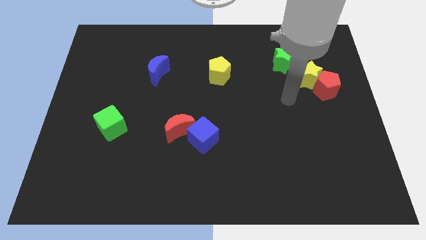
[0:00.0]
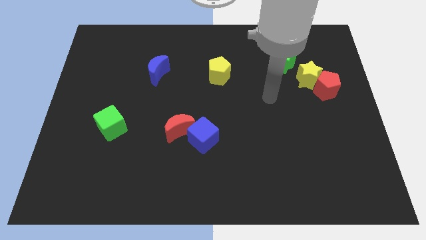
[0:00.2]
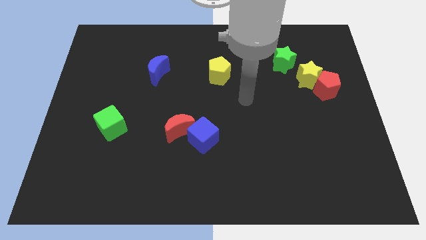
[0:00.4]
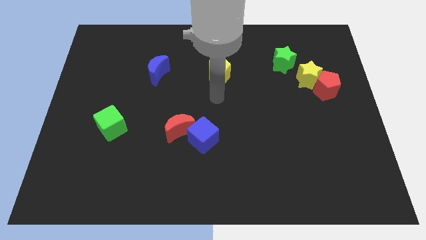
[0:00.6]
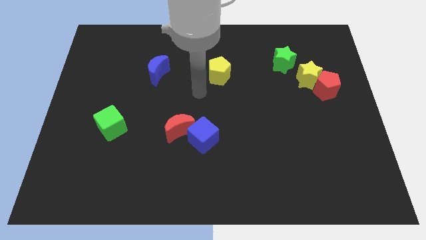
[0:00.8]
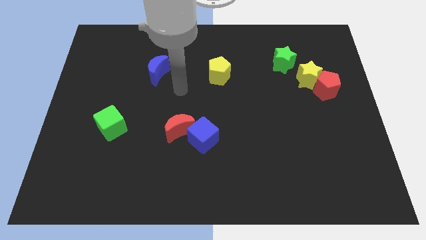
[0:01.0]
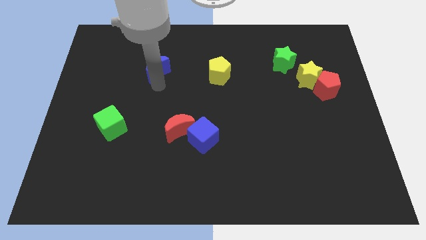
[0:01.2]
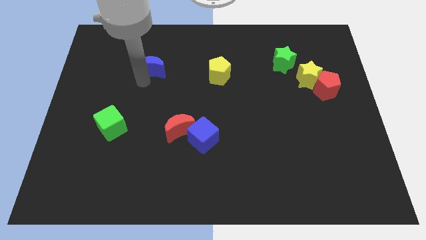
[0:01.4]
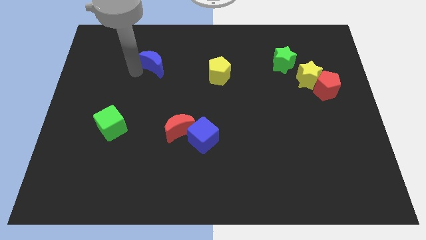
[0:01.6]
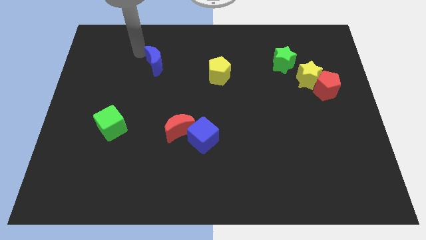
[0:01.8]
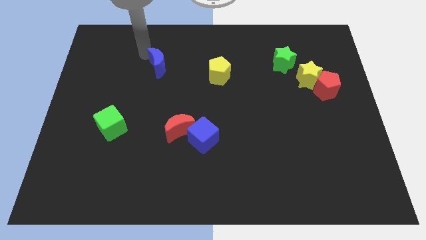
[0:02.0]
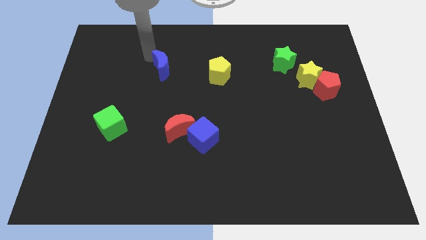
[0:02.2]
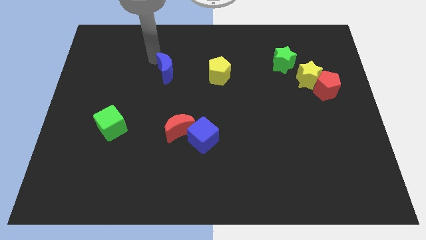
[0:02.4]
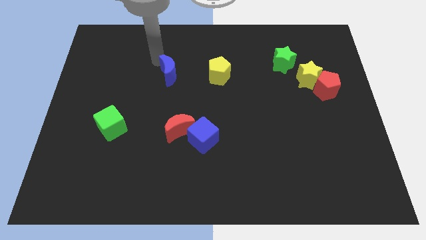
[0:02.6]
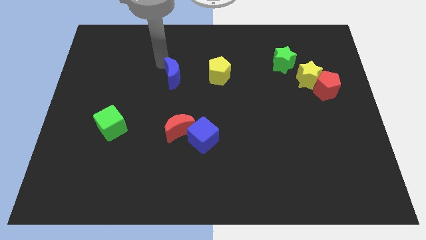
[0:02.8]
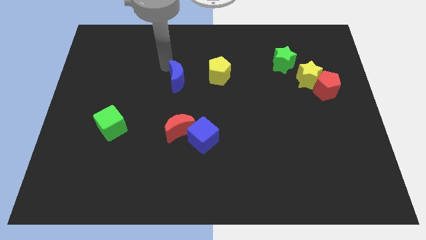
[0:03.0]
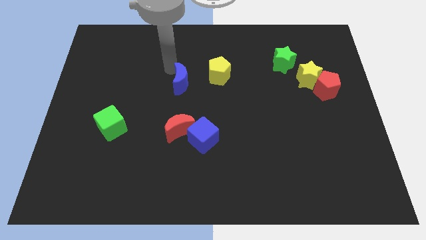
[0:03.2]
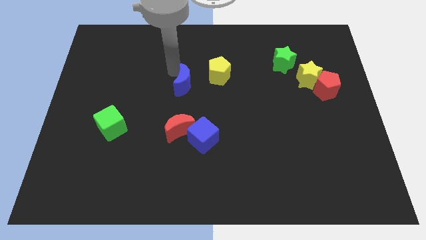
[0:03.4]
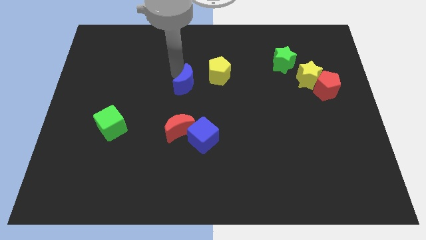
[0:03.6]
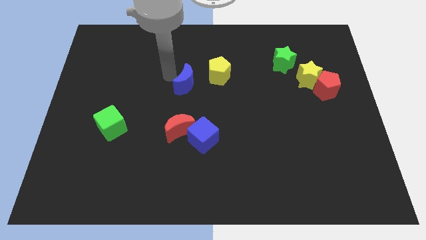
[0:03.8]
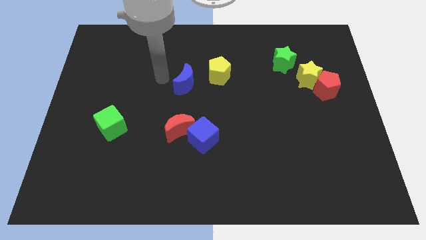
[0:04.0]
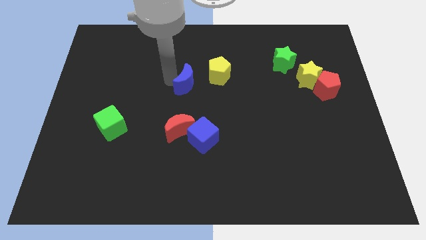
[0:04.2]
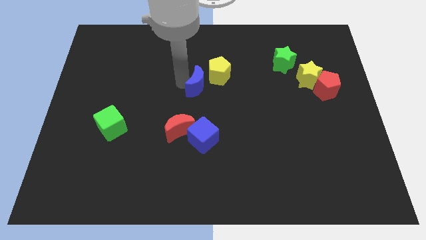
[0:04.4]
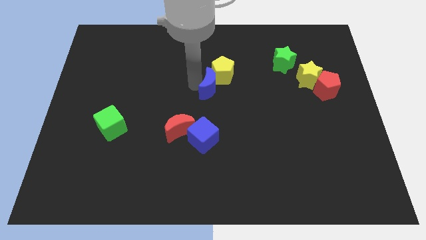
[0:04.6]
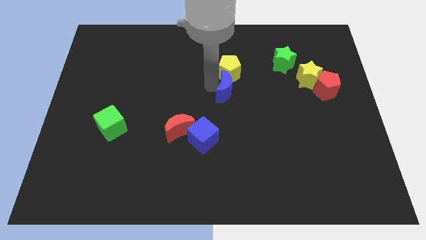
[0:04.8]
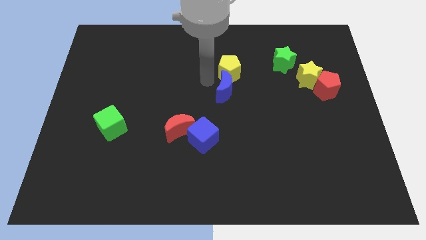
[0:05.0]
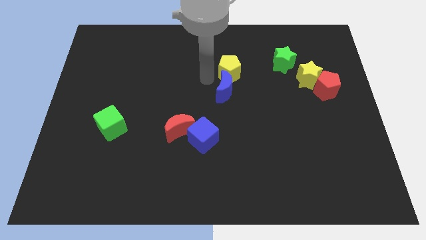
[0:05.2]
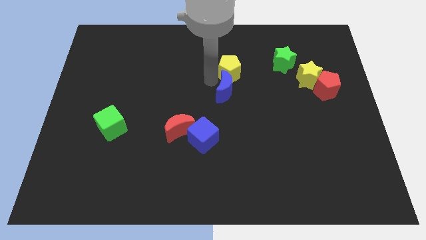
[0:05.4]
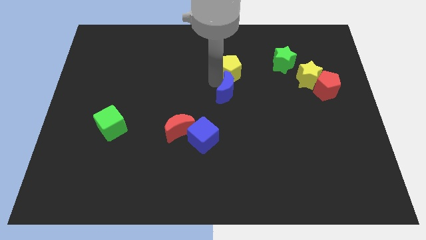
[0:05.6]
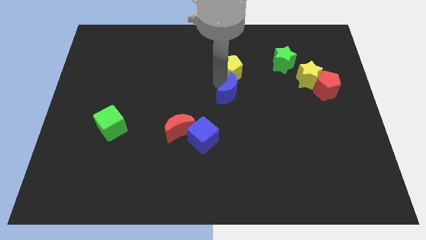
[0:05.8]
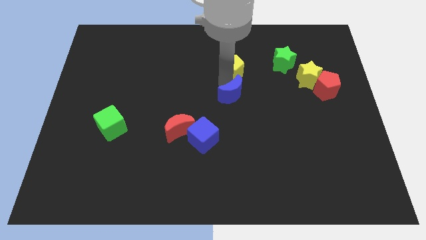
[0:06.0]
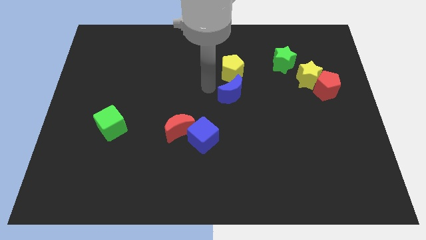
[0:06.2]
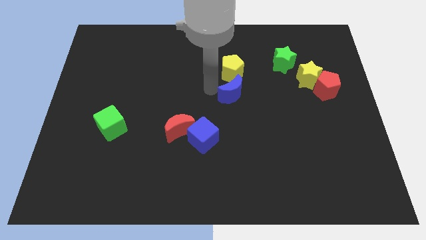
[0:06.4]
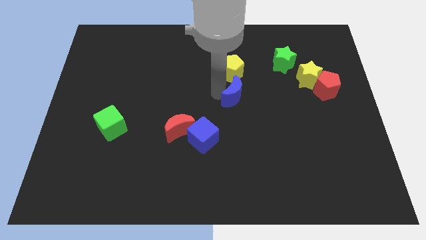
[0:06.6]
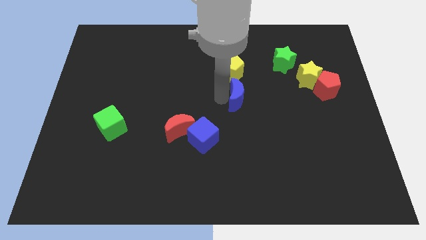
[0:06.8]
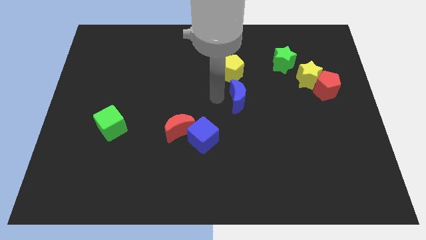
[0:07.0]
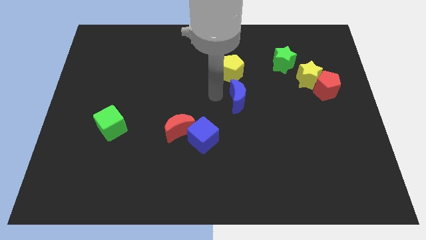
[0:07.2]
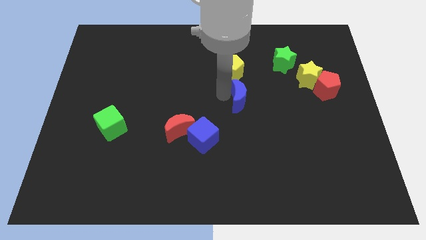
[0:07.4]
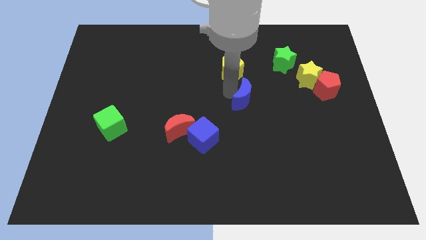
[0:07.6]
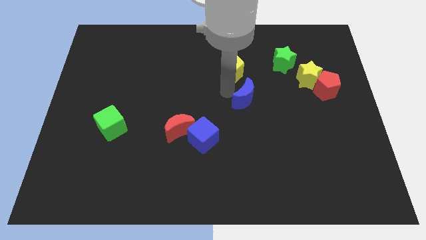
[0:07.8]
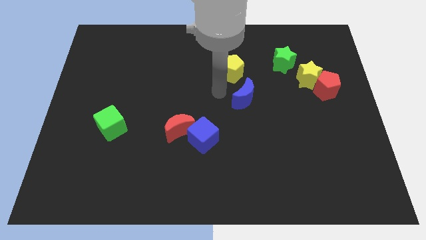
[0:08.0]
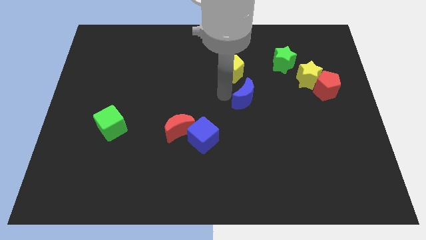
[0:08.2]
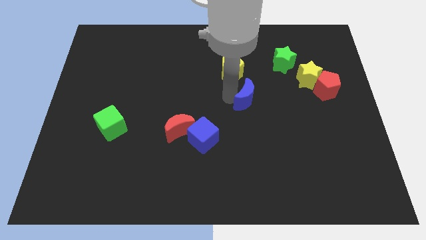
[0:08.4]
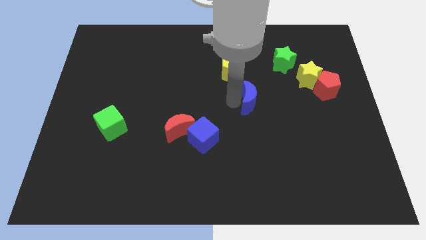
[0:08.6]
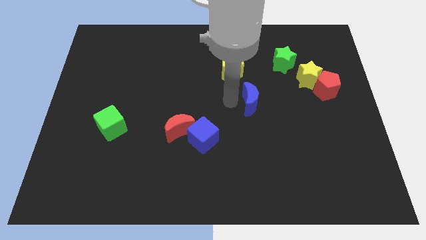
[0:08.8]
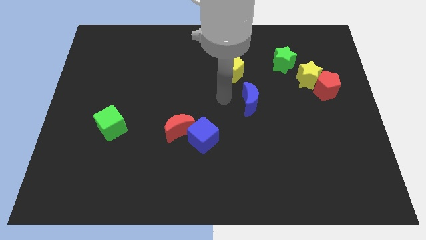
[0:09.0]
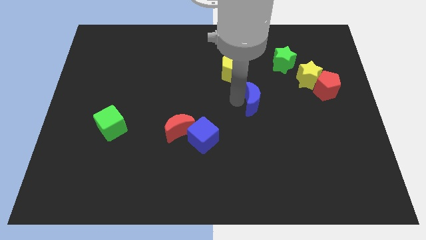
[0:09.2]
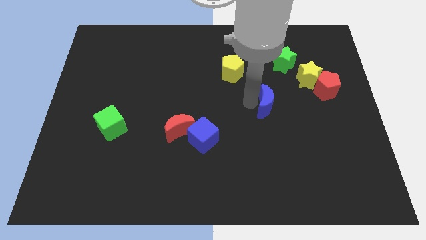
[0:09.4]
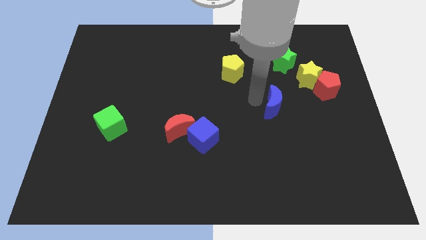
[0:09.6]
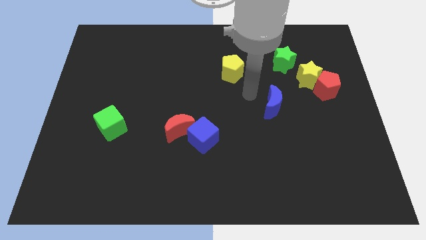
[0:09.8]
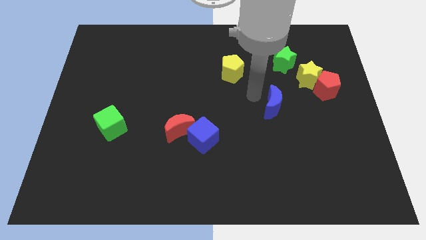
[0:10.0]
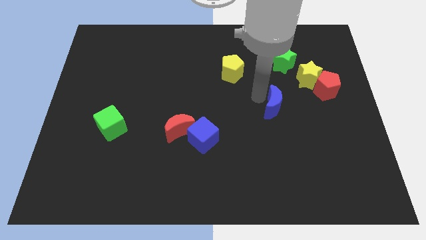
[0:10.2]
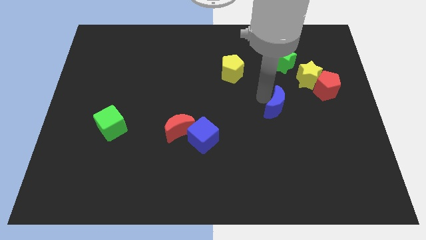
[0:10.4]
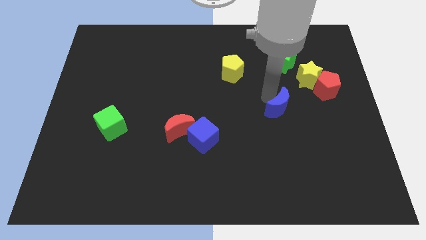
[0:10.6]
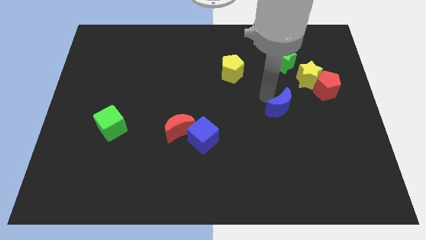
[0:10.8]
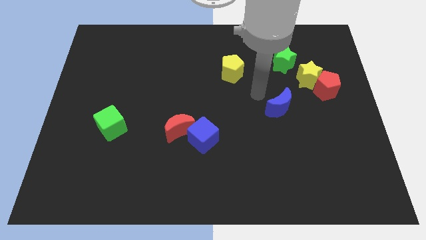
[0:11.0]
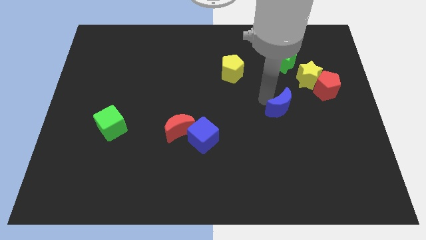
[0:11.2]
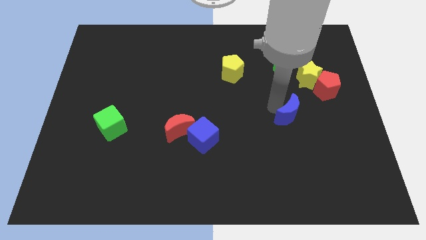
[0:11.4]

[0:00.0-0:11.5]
move the blue moon diagonally down and to the left of the red pentagon

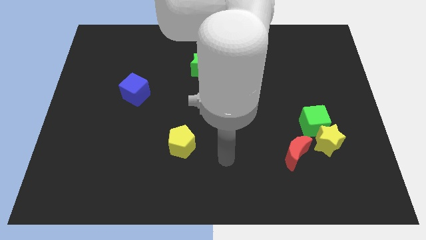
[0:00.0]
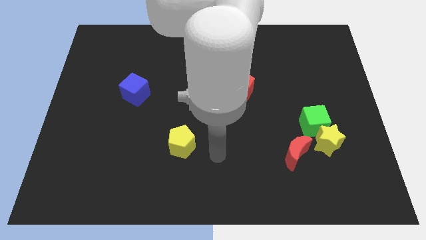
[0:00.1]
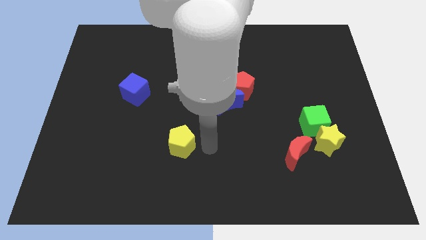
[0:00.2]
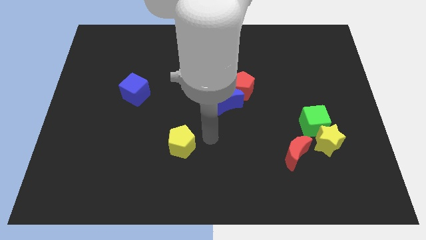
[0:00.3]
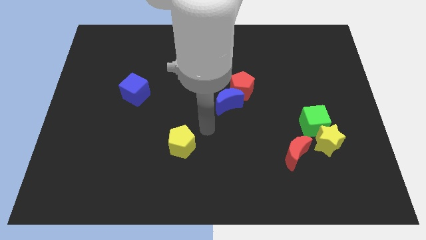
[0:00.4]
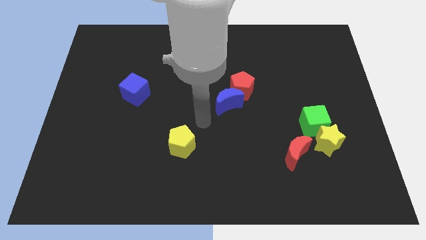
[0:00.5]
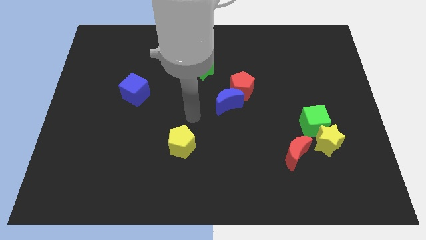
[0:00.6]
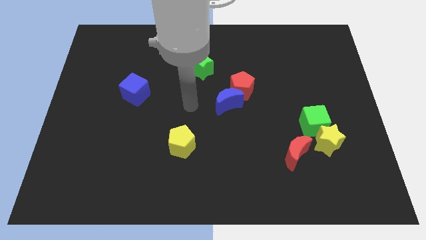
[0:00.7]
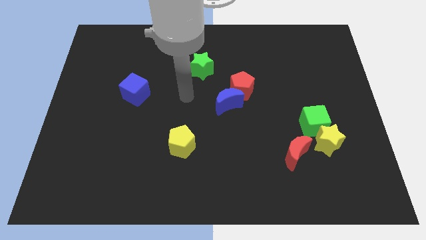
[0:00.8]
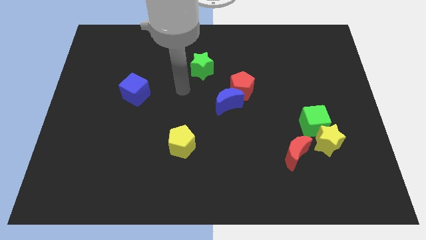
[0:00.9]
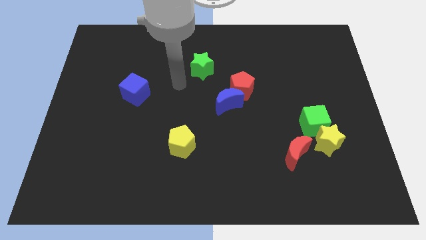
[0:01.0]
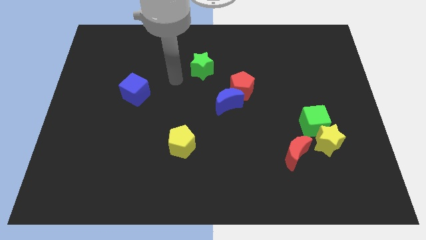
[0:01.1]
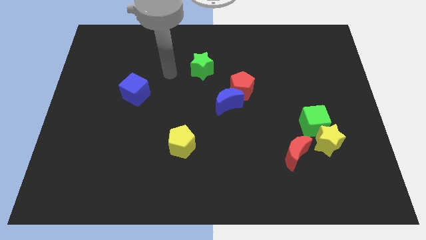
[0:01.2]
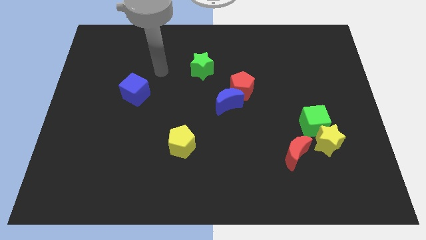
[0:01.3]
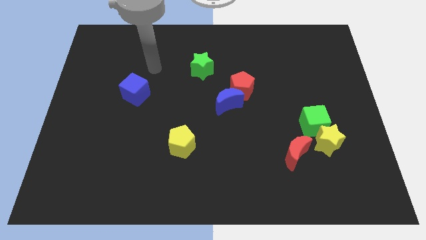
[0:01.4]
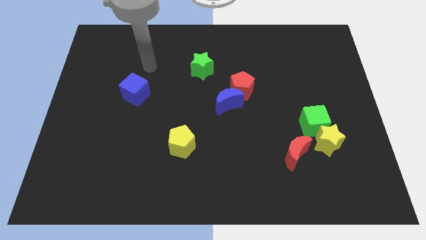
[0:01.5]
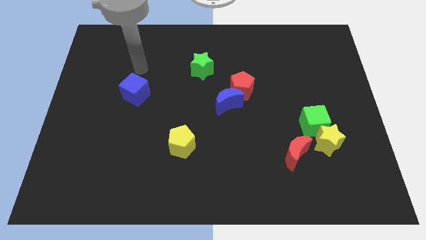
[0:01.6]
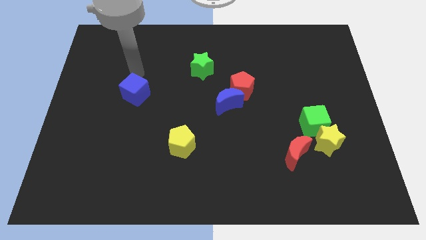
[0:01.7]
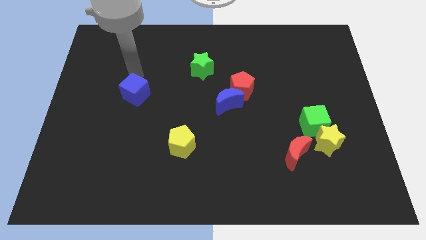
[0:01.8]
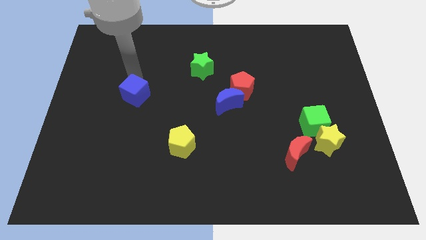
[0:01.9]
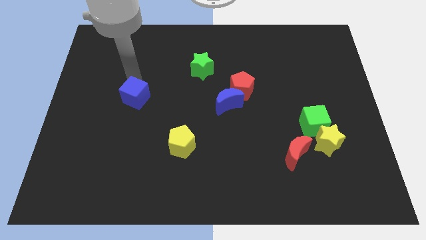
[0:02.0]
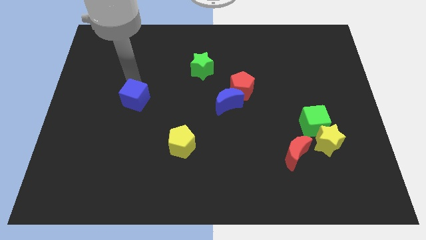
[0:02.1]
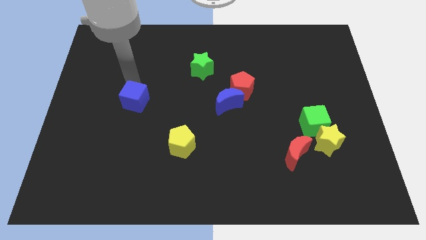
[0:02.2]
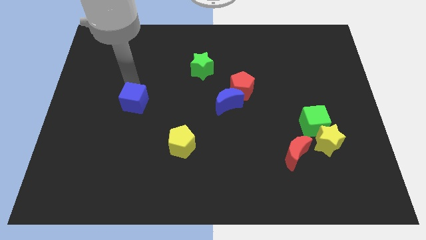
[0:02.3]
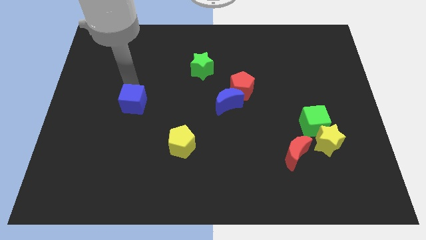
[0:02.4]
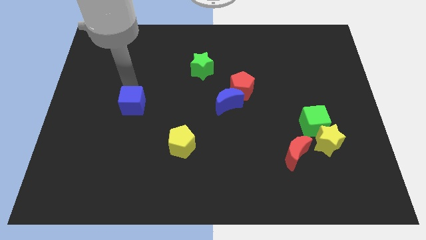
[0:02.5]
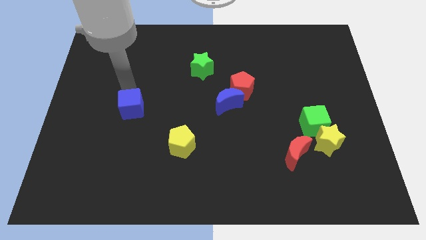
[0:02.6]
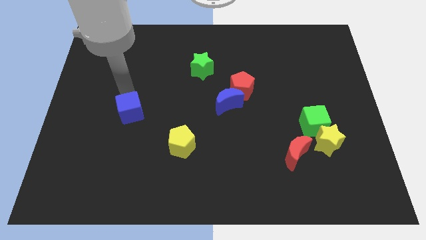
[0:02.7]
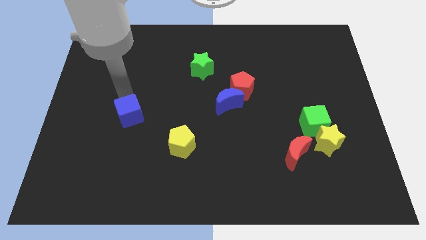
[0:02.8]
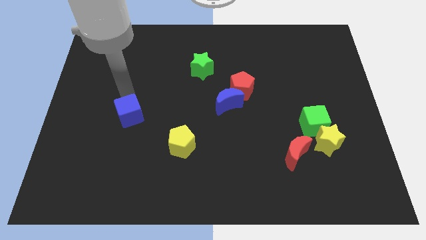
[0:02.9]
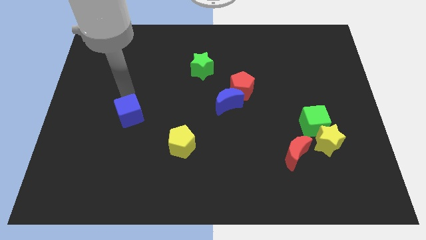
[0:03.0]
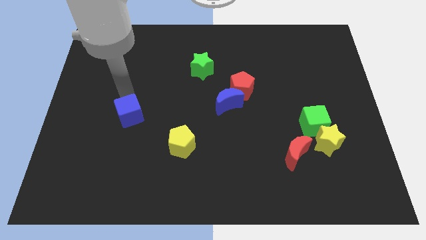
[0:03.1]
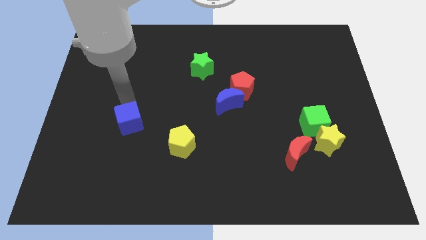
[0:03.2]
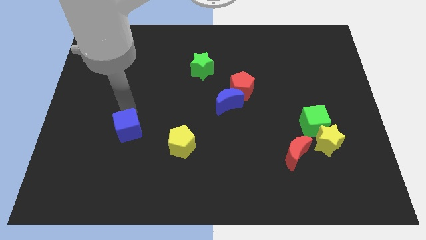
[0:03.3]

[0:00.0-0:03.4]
move the blue cube to the left of the yellow pentagon
